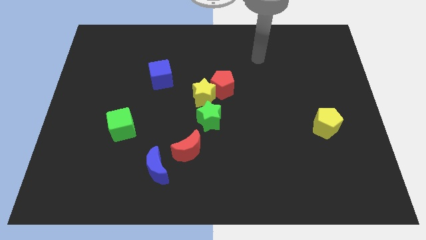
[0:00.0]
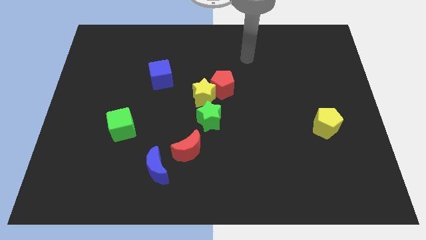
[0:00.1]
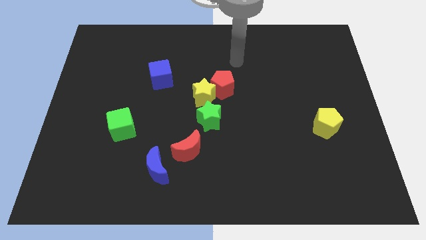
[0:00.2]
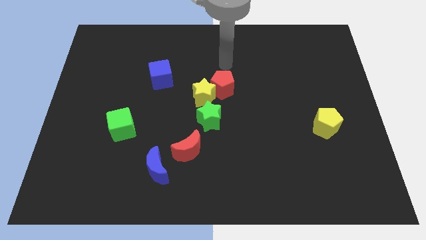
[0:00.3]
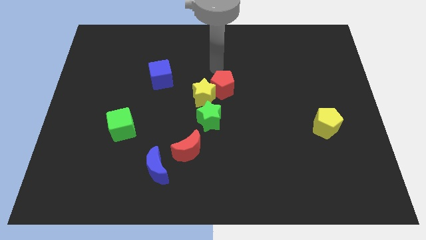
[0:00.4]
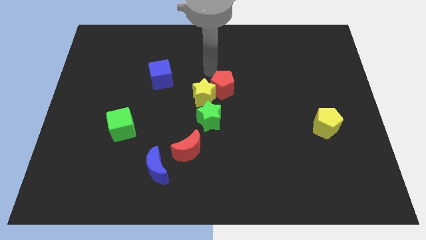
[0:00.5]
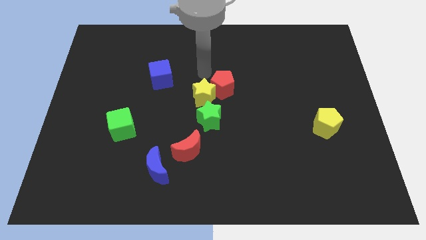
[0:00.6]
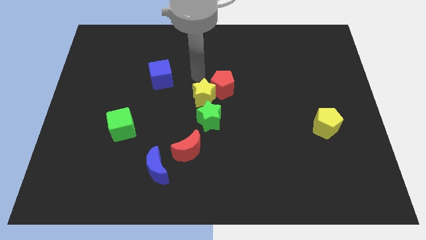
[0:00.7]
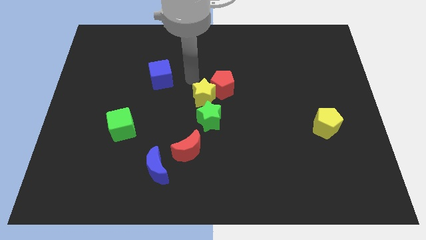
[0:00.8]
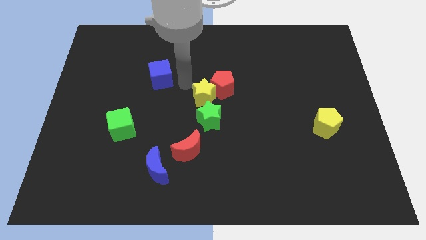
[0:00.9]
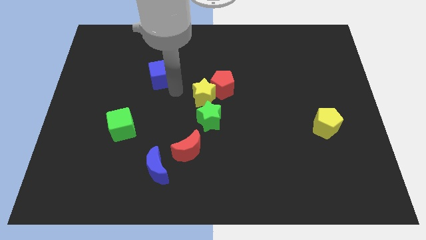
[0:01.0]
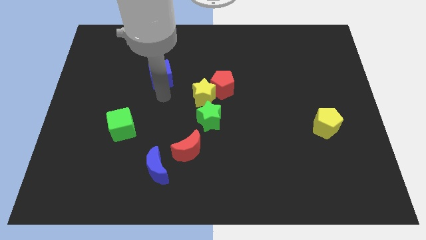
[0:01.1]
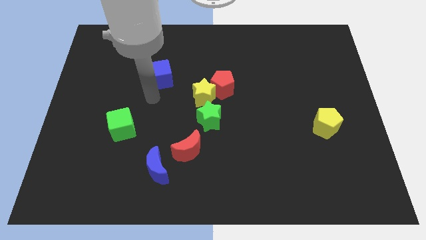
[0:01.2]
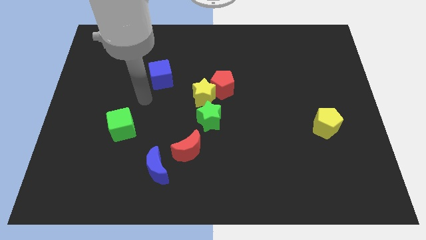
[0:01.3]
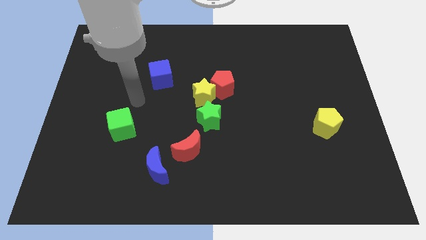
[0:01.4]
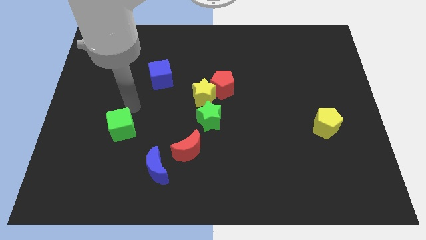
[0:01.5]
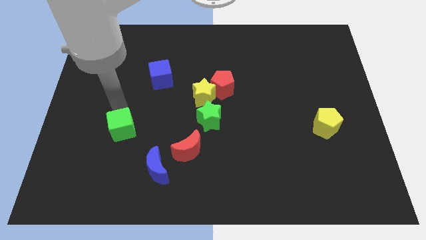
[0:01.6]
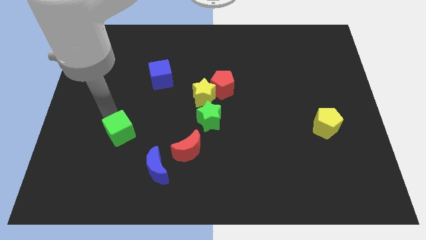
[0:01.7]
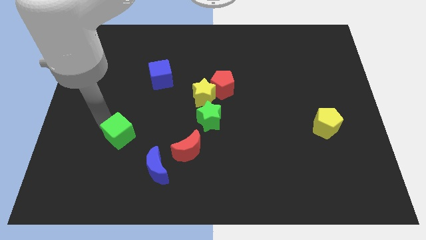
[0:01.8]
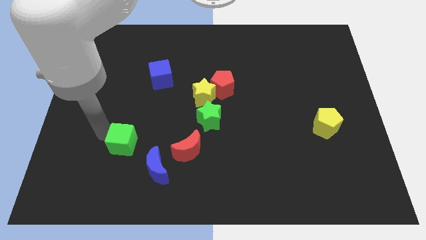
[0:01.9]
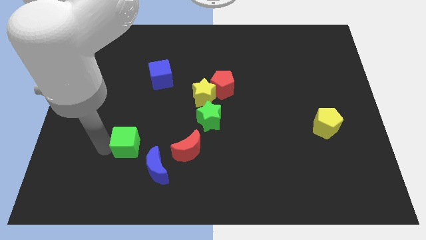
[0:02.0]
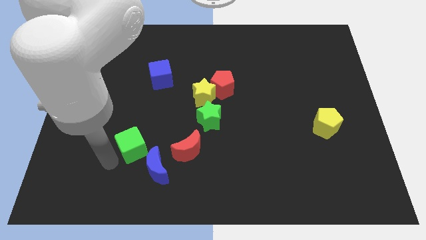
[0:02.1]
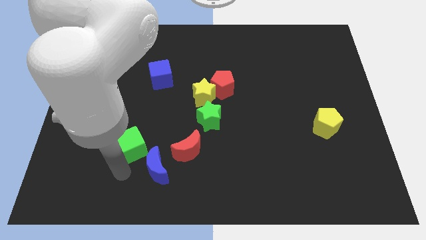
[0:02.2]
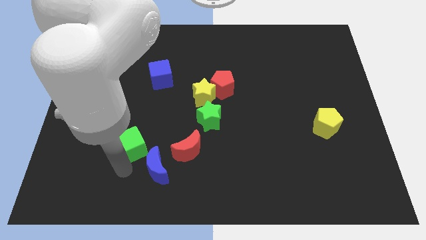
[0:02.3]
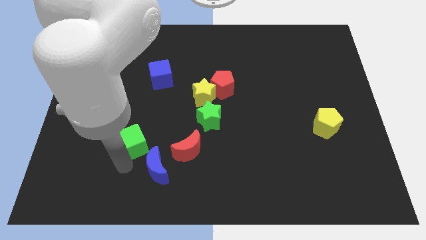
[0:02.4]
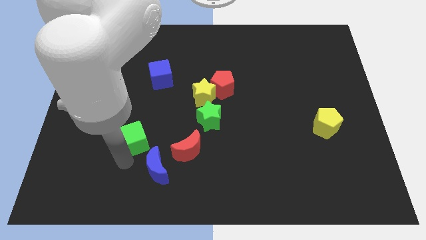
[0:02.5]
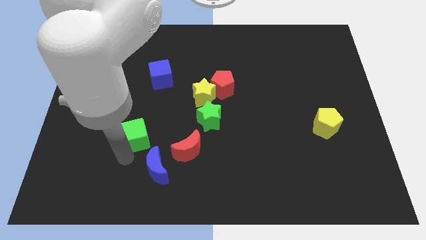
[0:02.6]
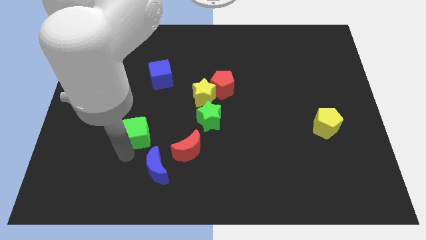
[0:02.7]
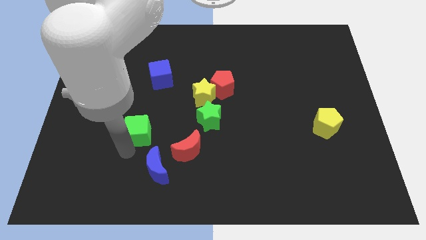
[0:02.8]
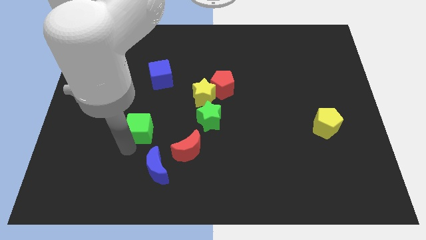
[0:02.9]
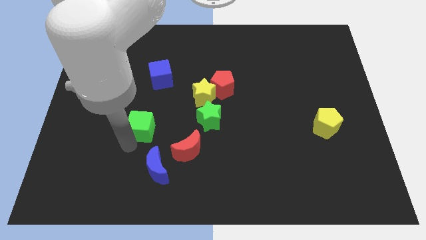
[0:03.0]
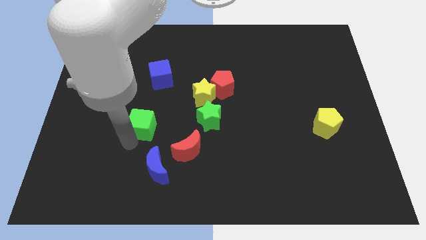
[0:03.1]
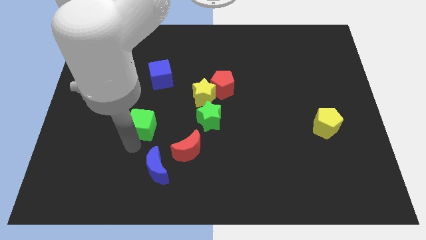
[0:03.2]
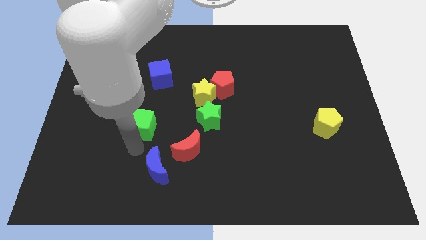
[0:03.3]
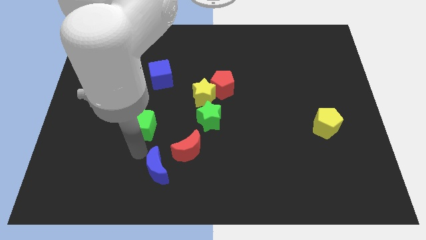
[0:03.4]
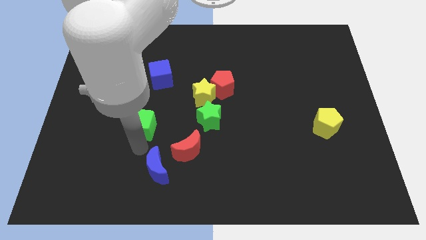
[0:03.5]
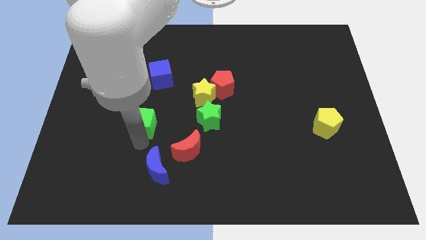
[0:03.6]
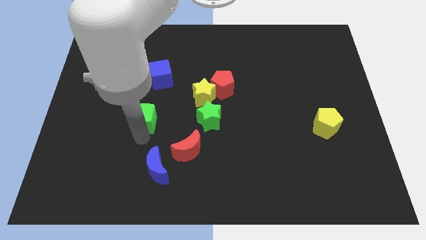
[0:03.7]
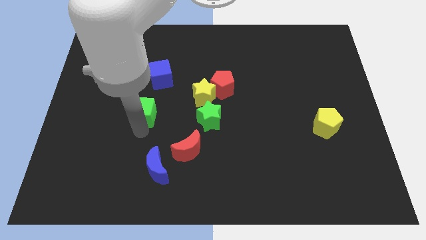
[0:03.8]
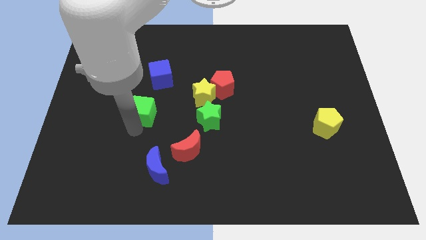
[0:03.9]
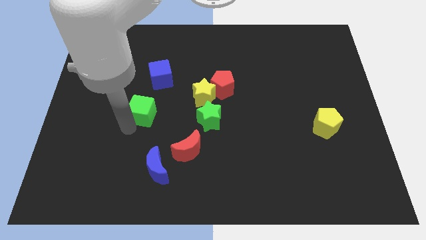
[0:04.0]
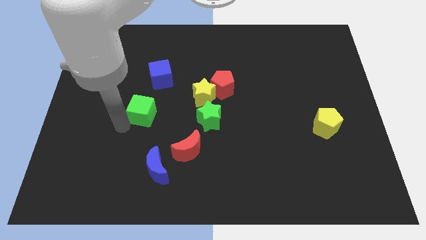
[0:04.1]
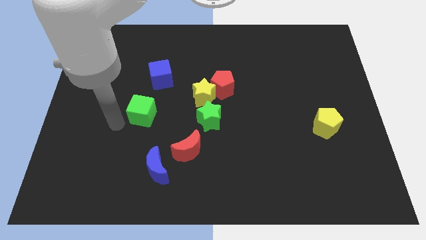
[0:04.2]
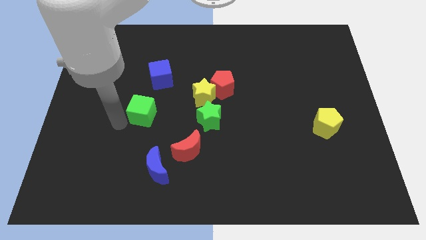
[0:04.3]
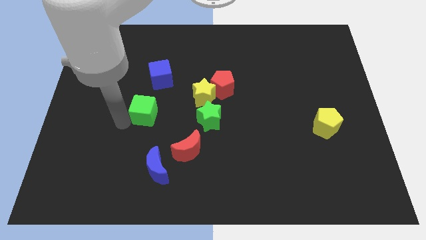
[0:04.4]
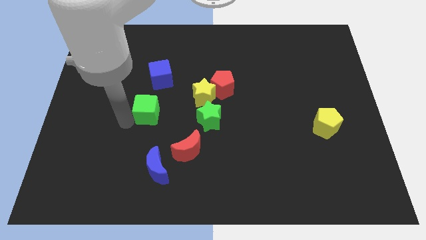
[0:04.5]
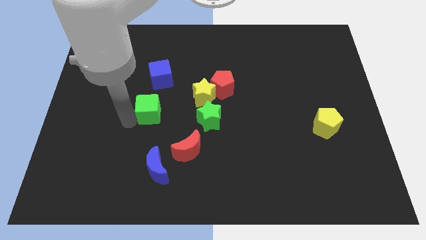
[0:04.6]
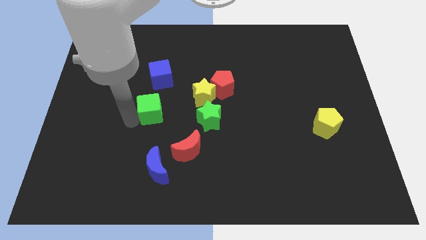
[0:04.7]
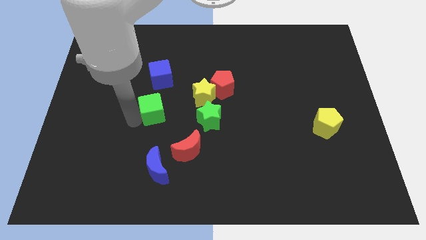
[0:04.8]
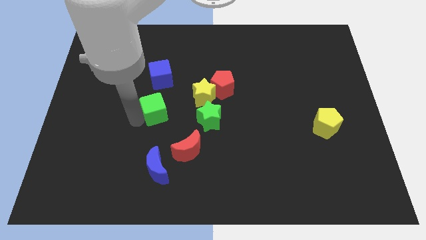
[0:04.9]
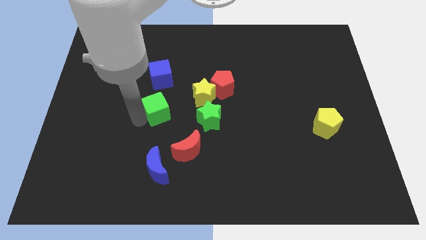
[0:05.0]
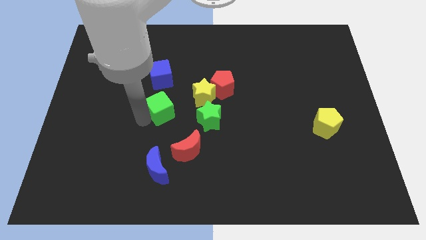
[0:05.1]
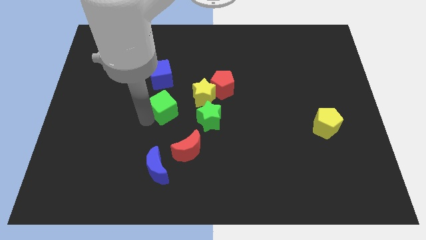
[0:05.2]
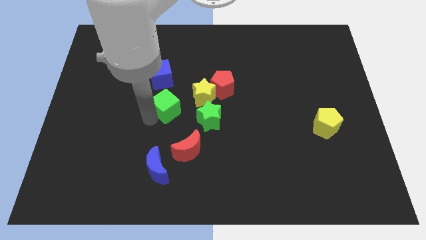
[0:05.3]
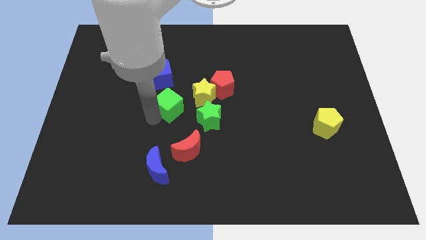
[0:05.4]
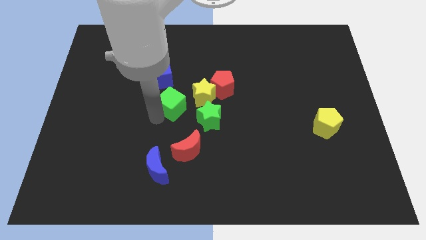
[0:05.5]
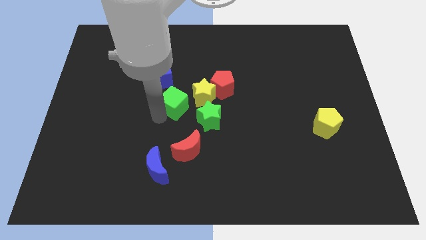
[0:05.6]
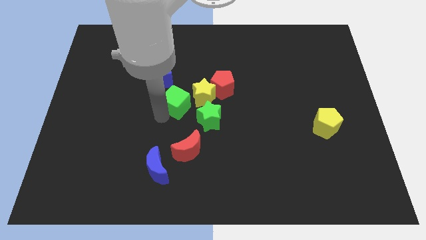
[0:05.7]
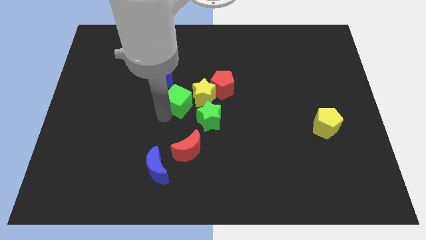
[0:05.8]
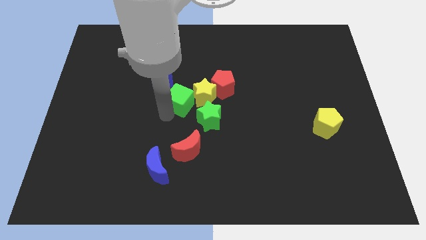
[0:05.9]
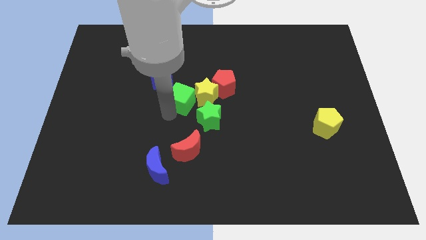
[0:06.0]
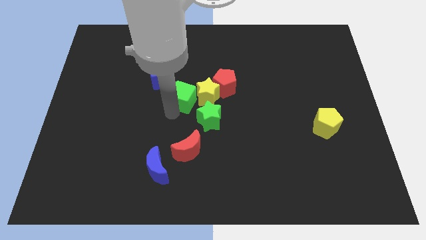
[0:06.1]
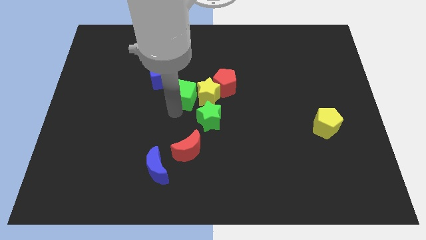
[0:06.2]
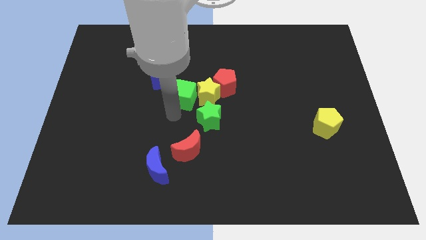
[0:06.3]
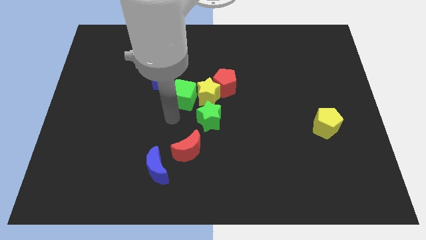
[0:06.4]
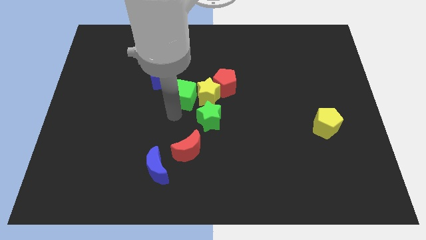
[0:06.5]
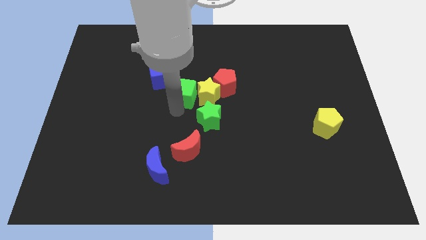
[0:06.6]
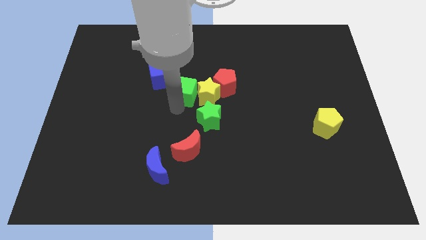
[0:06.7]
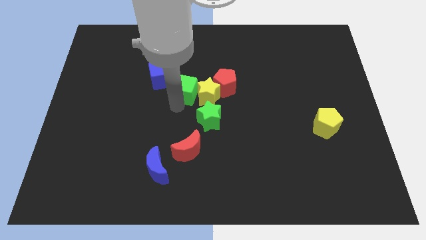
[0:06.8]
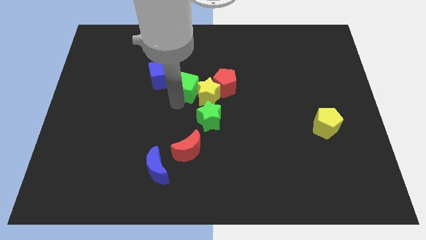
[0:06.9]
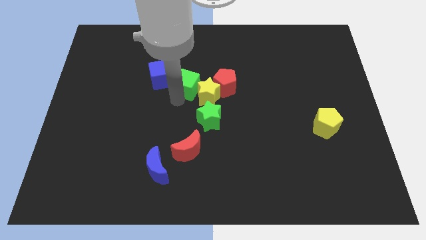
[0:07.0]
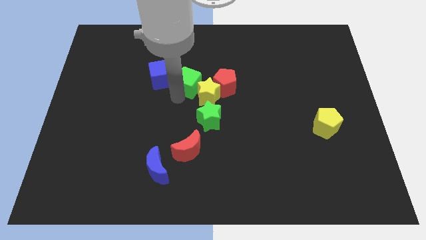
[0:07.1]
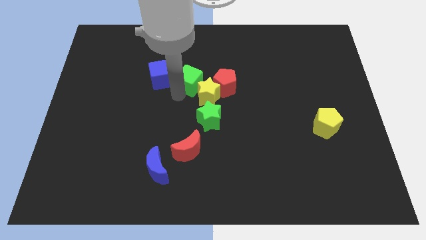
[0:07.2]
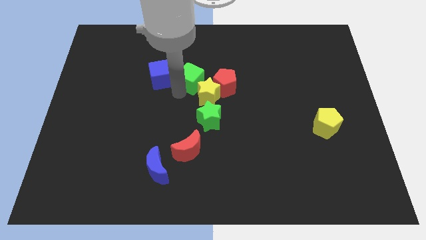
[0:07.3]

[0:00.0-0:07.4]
push the green cube to the top left side of the red pentagon

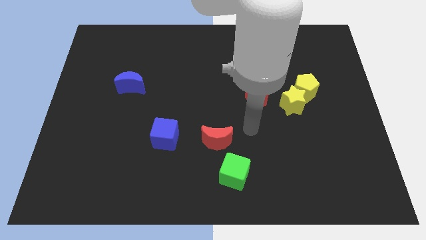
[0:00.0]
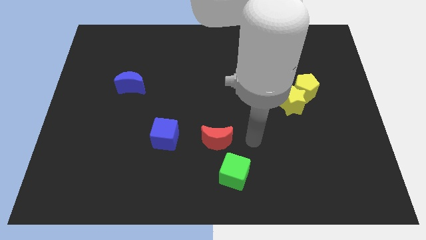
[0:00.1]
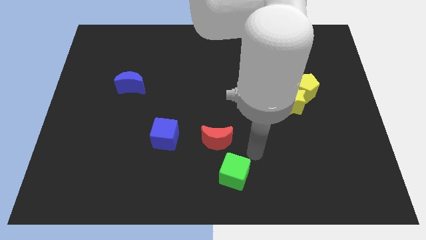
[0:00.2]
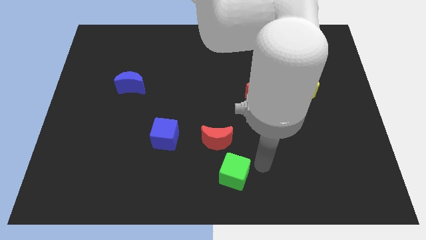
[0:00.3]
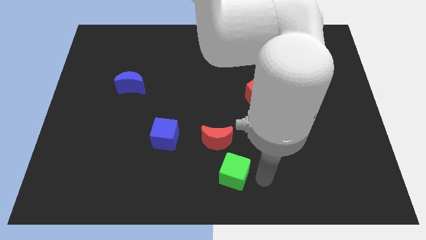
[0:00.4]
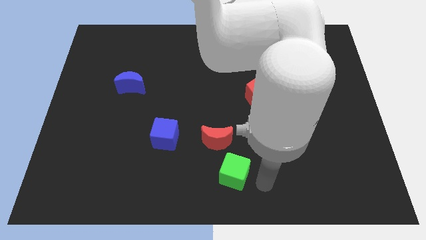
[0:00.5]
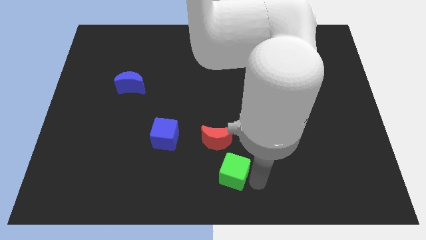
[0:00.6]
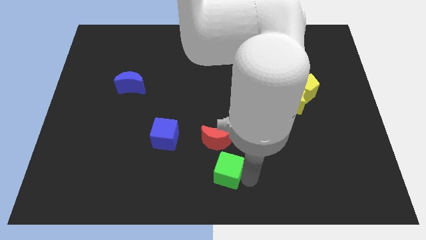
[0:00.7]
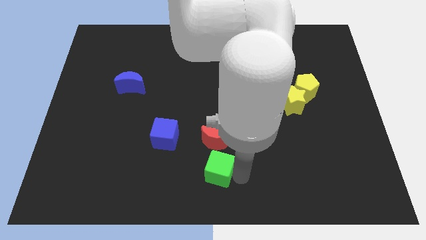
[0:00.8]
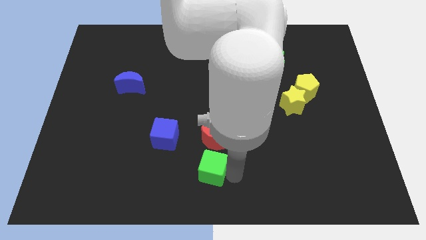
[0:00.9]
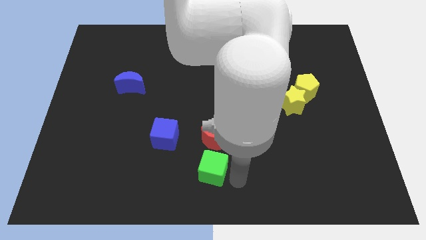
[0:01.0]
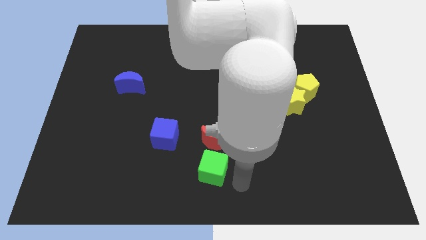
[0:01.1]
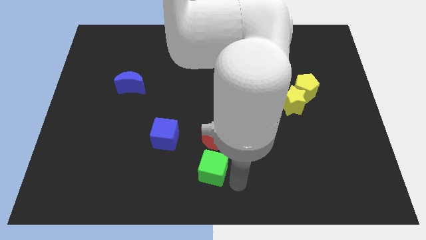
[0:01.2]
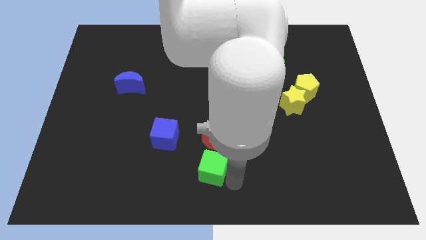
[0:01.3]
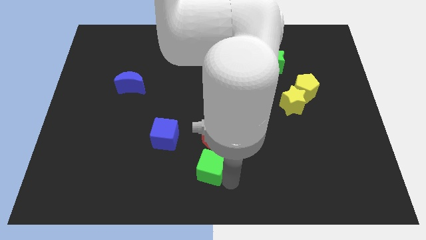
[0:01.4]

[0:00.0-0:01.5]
slide the green cube diagonally down and to the right of the blue cube
